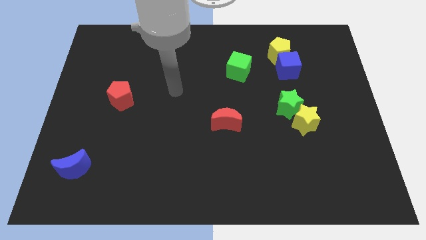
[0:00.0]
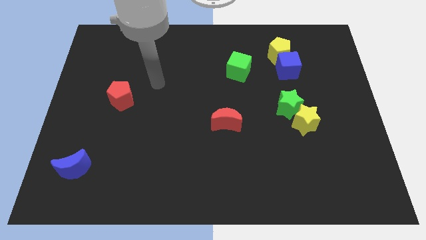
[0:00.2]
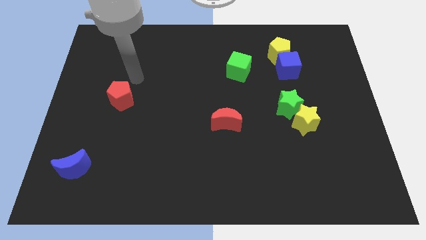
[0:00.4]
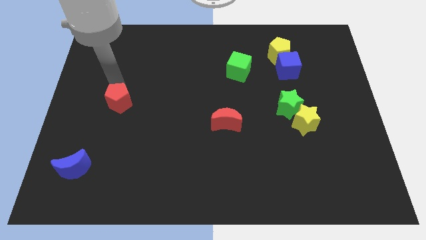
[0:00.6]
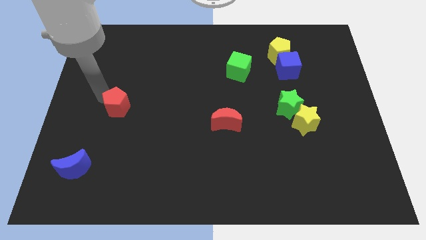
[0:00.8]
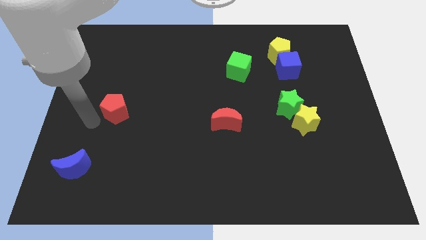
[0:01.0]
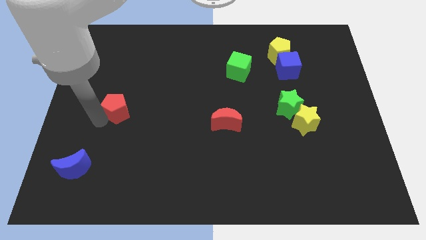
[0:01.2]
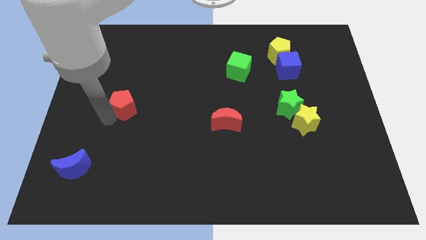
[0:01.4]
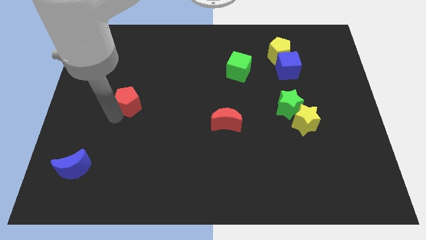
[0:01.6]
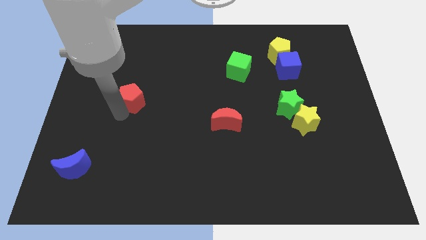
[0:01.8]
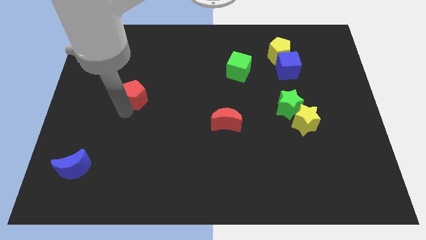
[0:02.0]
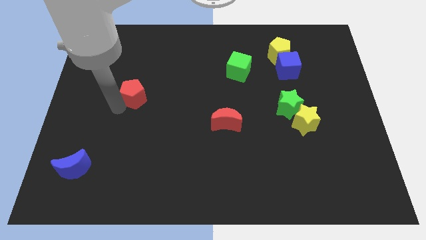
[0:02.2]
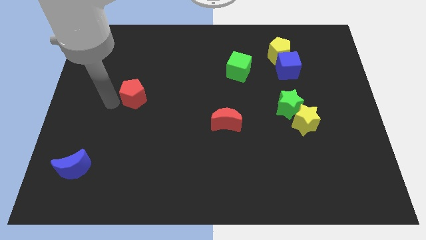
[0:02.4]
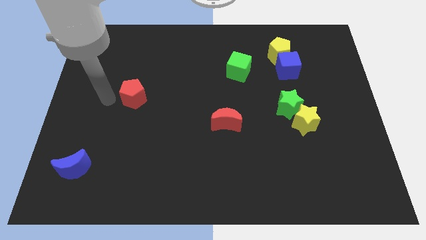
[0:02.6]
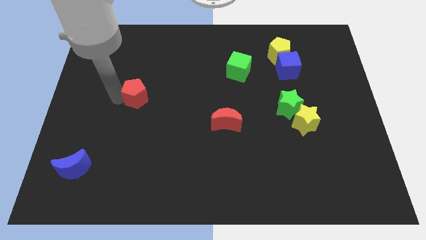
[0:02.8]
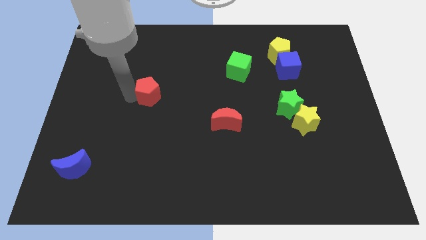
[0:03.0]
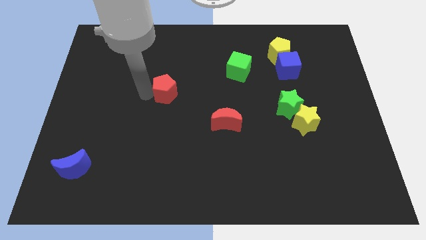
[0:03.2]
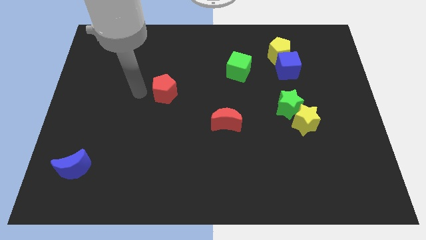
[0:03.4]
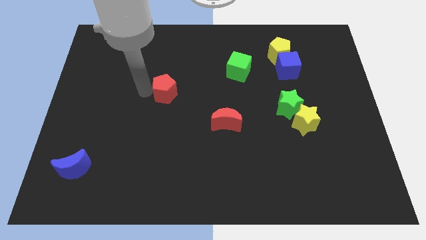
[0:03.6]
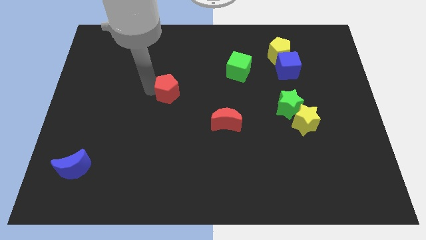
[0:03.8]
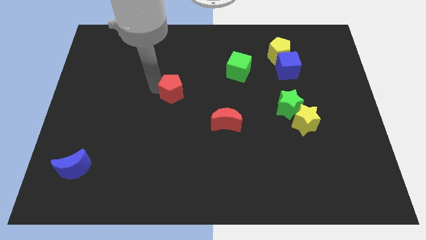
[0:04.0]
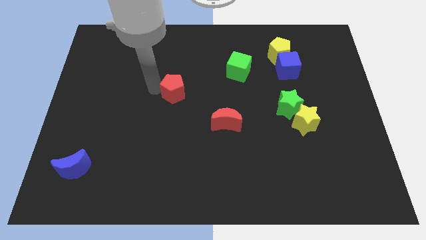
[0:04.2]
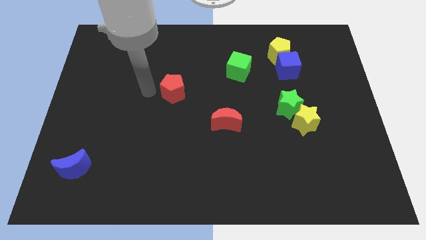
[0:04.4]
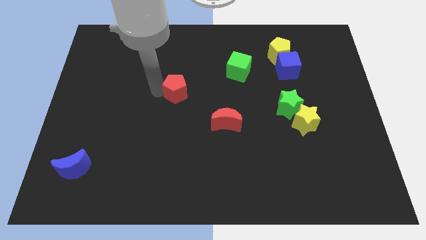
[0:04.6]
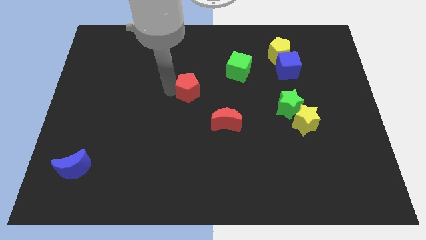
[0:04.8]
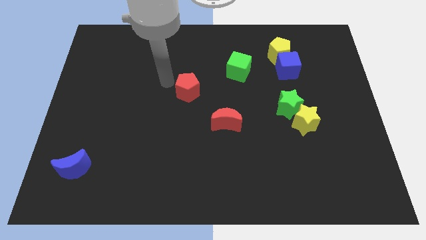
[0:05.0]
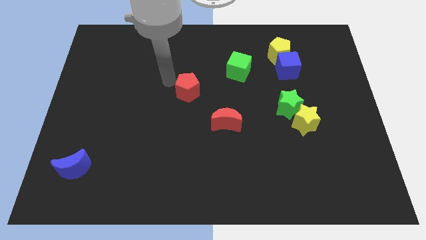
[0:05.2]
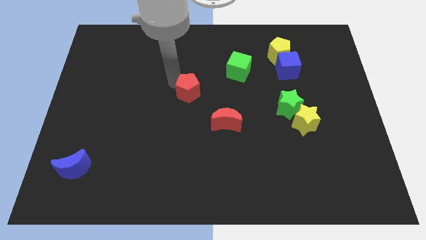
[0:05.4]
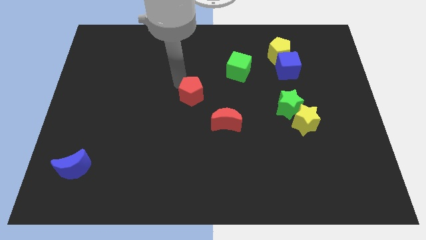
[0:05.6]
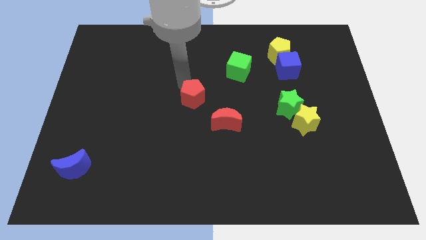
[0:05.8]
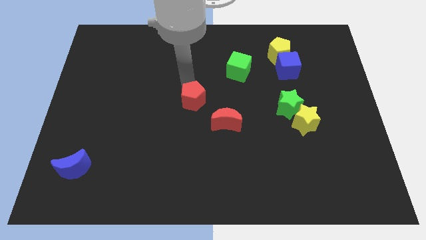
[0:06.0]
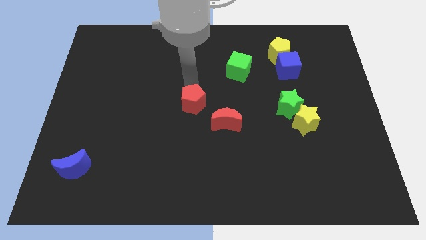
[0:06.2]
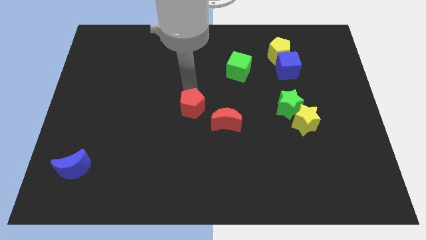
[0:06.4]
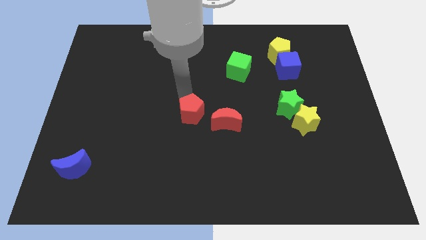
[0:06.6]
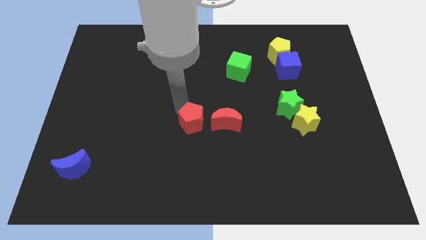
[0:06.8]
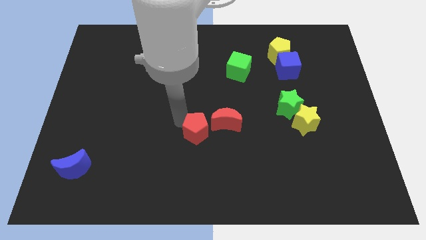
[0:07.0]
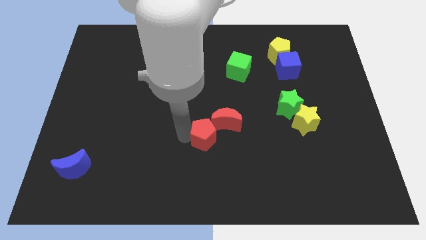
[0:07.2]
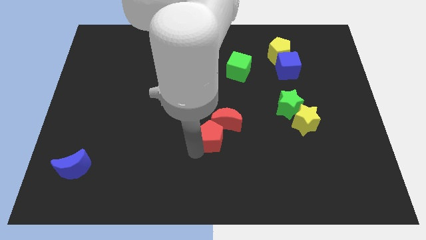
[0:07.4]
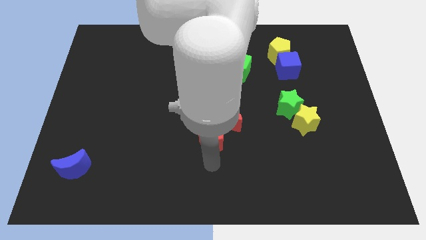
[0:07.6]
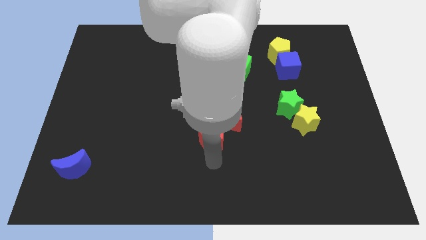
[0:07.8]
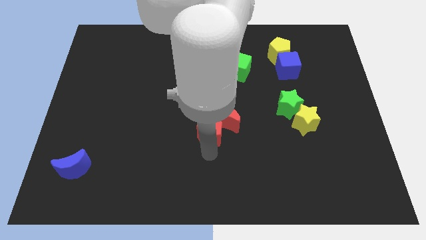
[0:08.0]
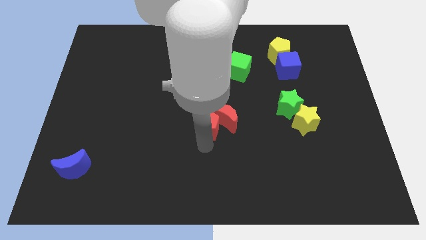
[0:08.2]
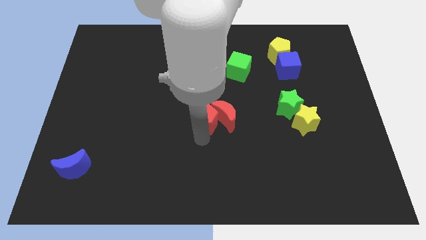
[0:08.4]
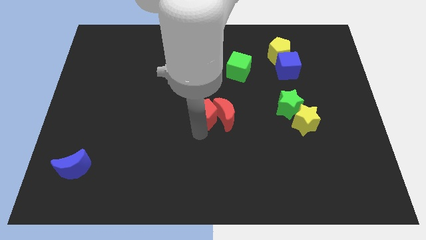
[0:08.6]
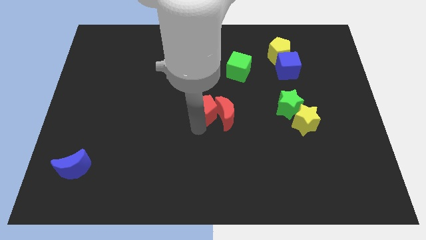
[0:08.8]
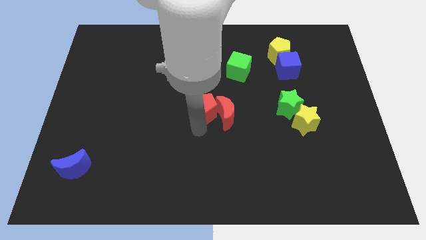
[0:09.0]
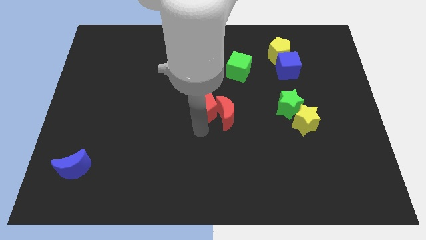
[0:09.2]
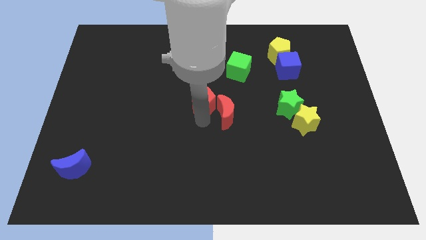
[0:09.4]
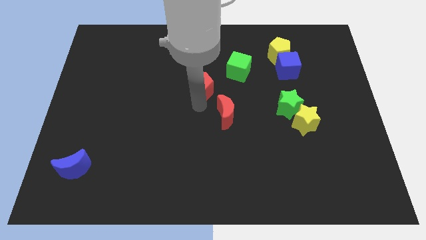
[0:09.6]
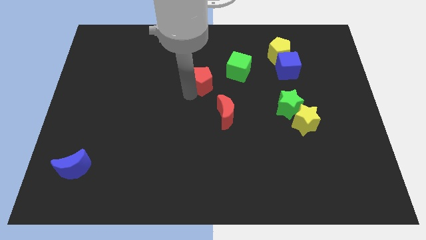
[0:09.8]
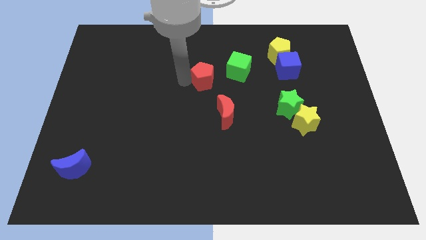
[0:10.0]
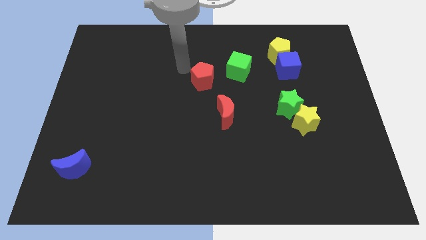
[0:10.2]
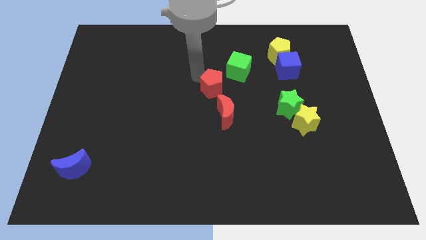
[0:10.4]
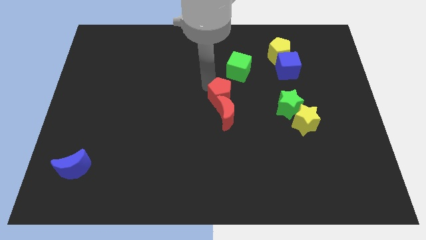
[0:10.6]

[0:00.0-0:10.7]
move the red pentagon below the green cube

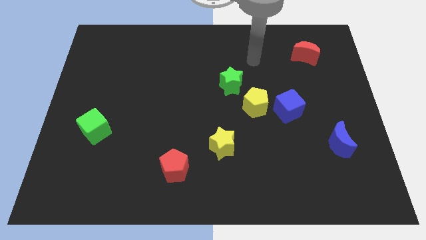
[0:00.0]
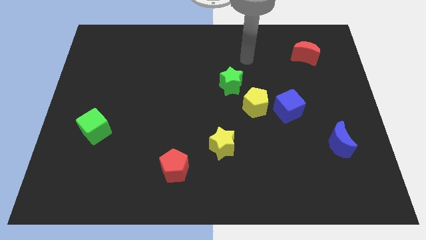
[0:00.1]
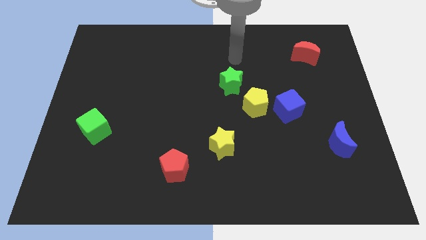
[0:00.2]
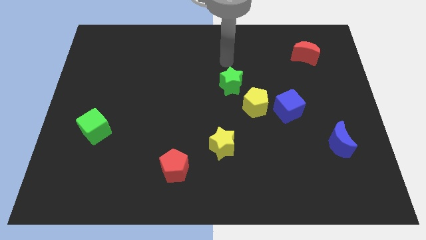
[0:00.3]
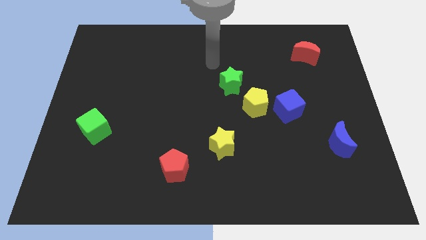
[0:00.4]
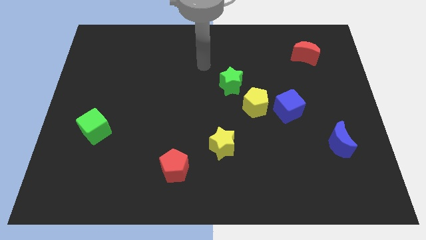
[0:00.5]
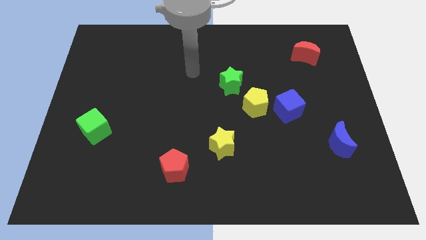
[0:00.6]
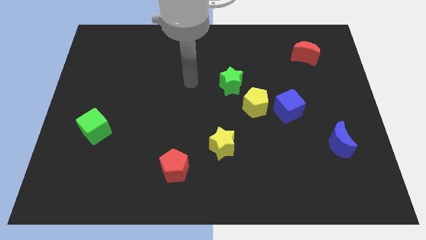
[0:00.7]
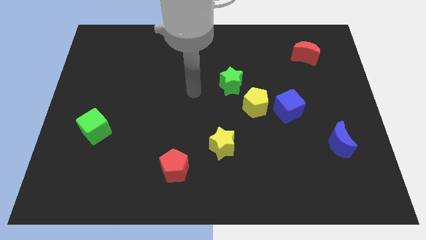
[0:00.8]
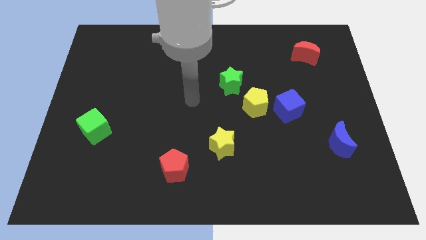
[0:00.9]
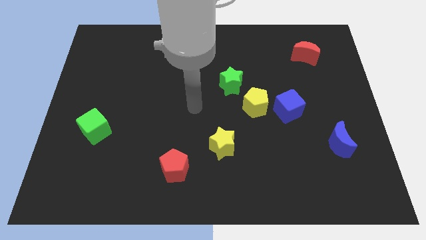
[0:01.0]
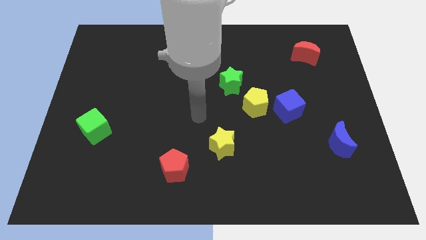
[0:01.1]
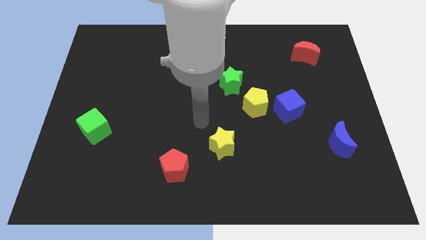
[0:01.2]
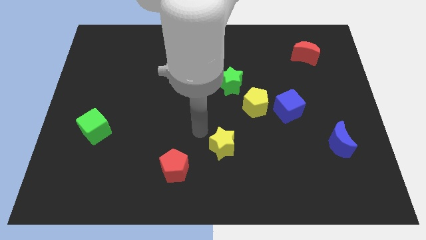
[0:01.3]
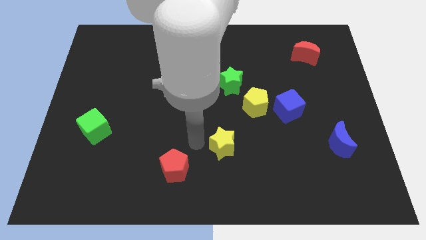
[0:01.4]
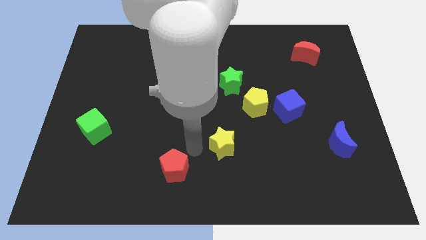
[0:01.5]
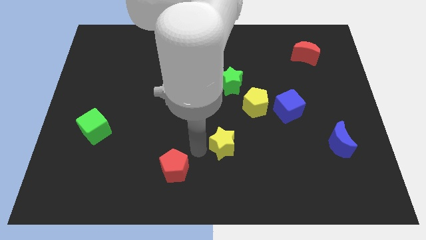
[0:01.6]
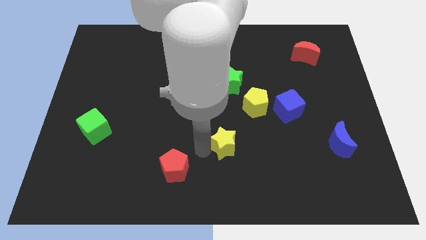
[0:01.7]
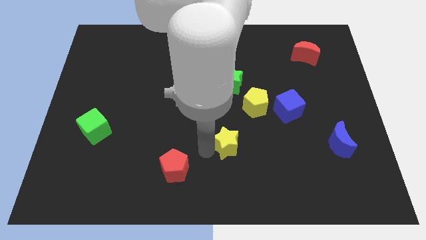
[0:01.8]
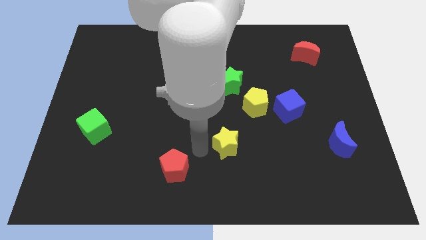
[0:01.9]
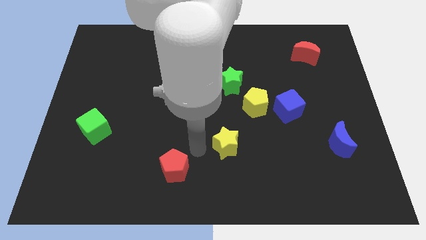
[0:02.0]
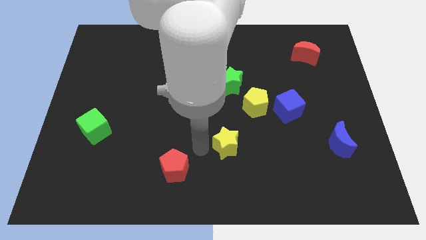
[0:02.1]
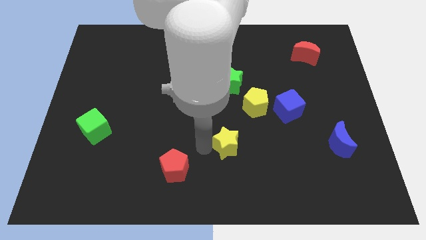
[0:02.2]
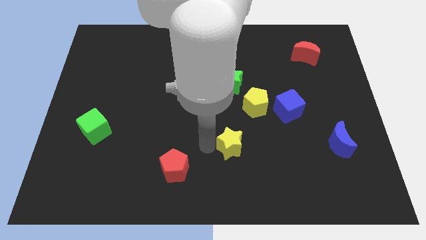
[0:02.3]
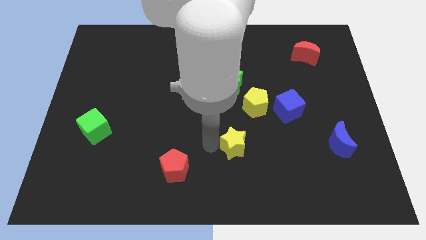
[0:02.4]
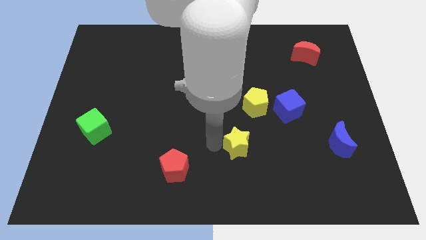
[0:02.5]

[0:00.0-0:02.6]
slide the yellow star to the bottom side of the yellow pentagon
